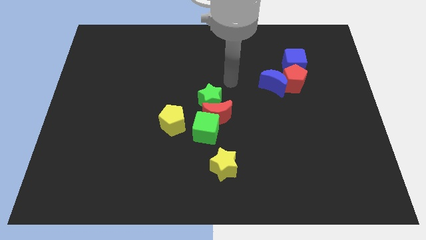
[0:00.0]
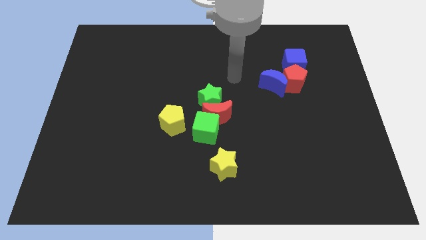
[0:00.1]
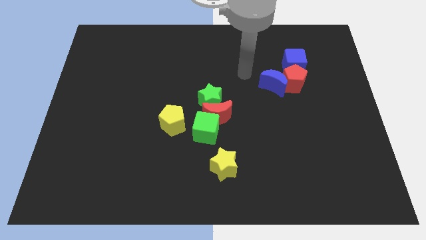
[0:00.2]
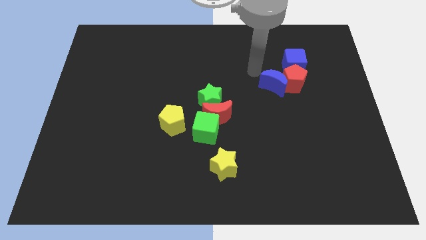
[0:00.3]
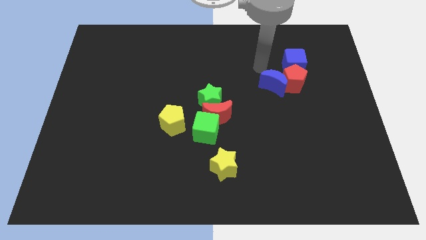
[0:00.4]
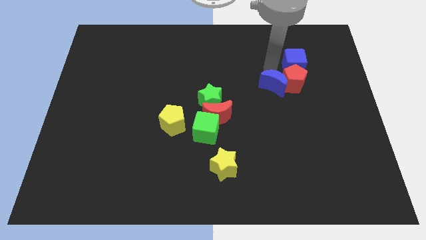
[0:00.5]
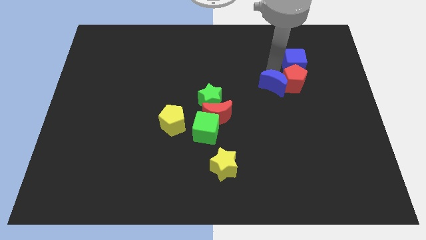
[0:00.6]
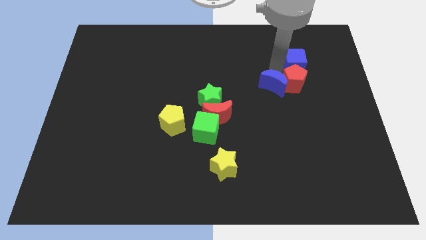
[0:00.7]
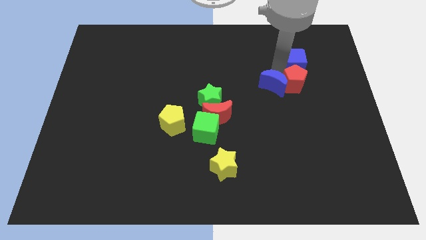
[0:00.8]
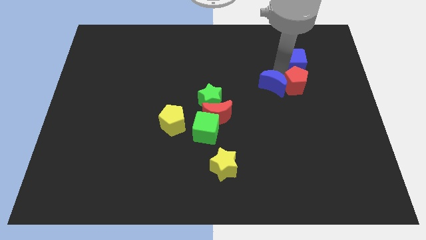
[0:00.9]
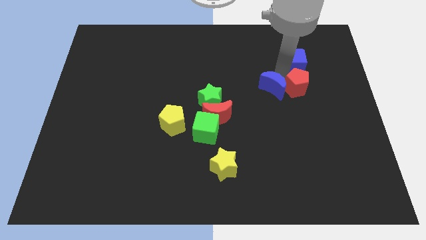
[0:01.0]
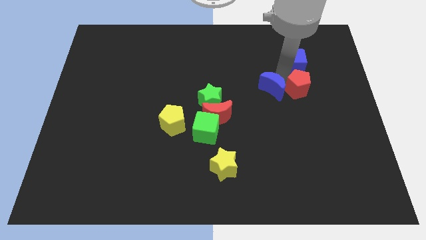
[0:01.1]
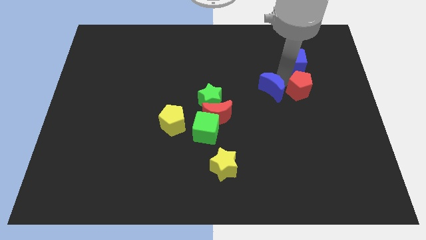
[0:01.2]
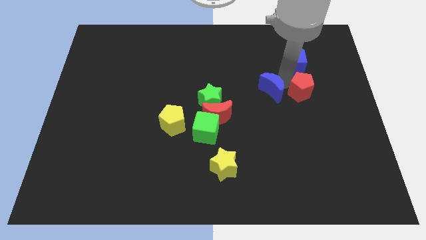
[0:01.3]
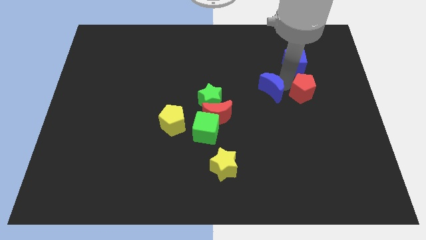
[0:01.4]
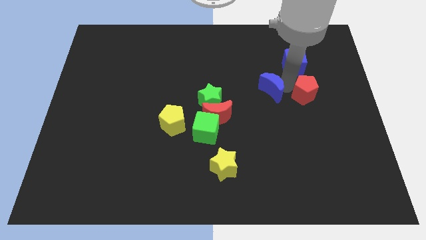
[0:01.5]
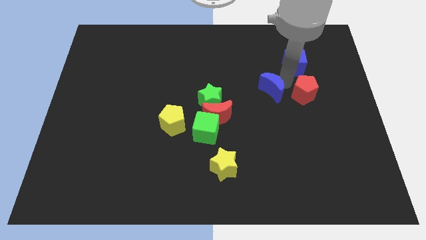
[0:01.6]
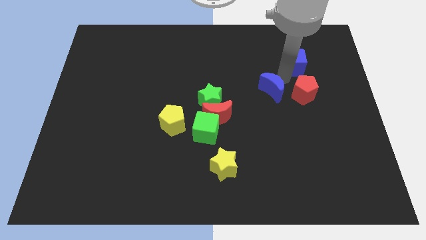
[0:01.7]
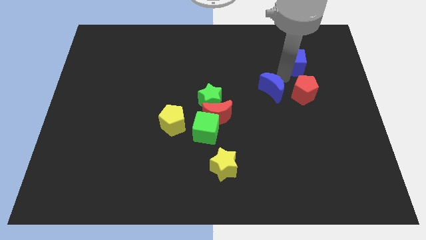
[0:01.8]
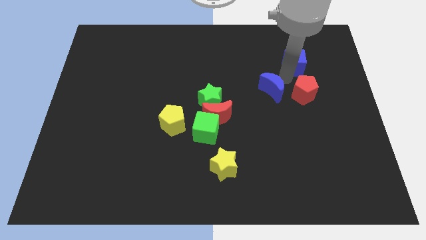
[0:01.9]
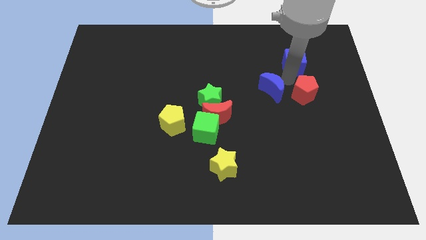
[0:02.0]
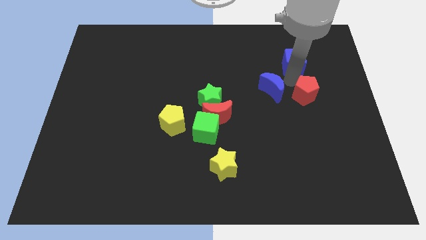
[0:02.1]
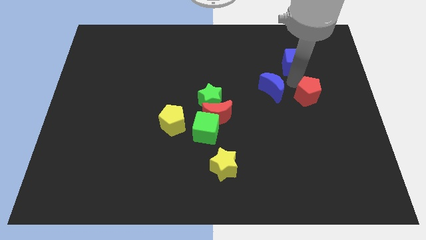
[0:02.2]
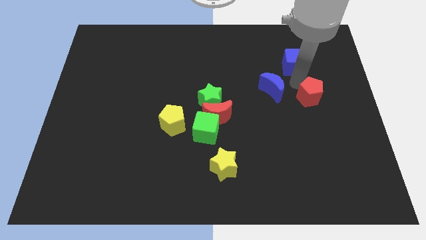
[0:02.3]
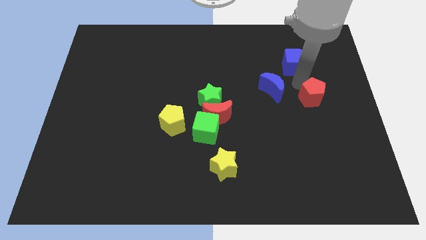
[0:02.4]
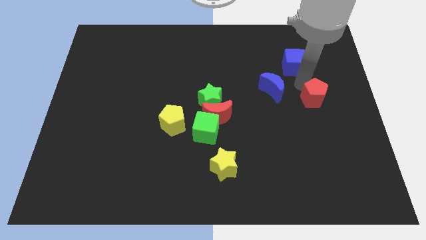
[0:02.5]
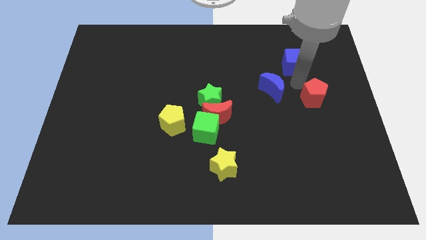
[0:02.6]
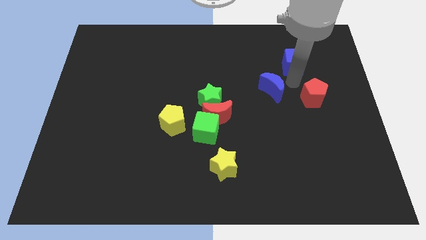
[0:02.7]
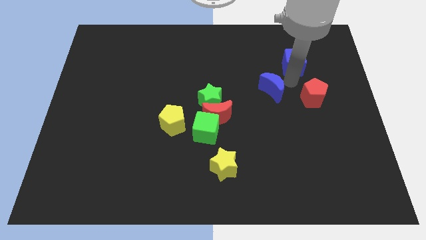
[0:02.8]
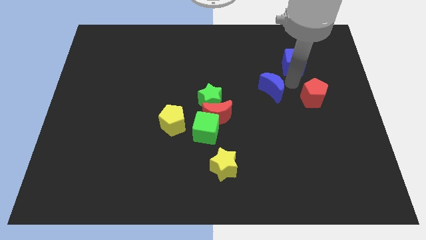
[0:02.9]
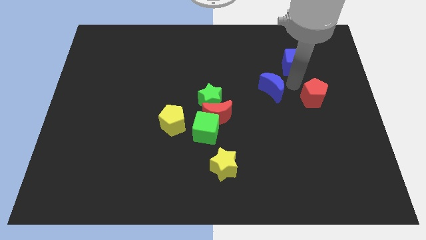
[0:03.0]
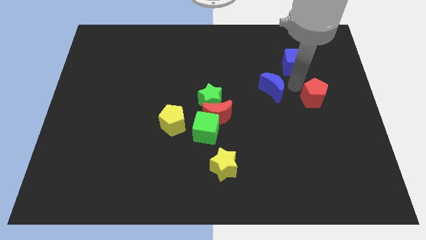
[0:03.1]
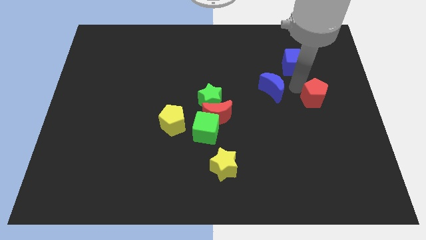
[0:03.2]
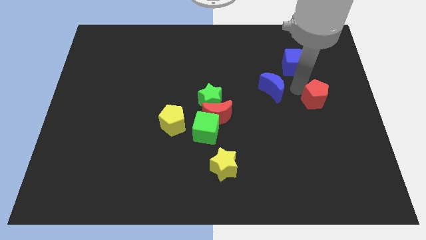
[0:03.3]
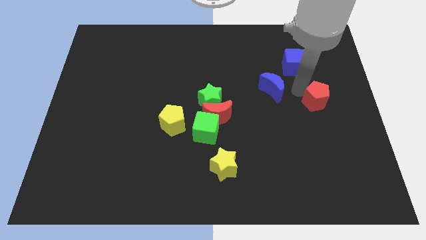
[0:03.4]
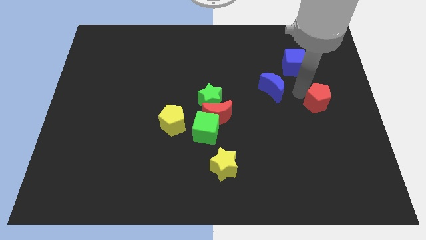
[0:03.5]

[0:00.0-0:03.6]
move the red pentagon away from the blue moon and blue cube

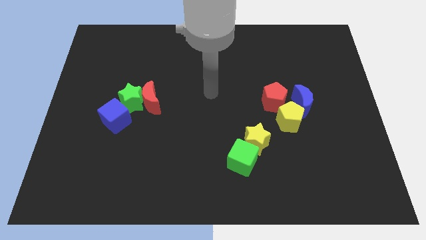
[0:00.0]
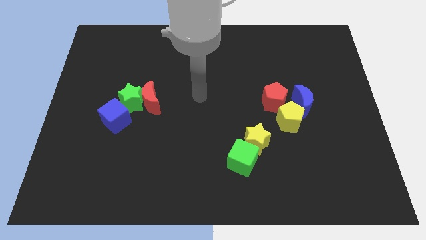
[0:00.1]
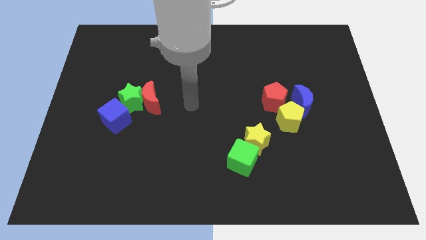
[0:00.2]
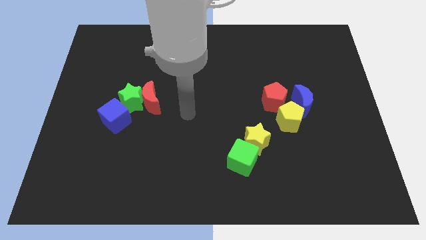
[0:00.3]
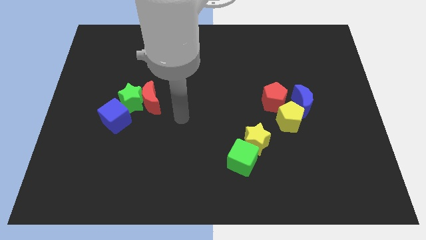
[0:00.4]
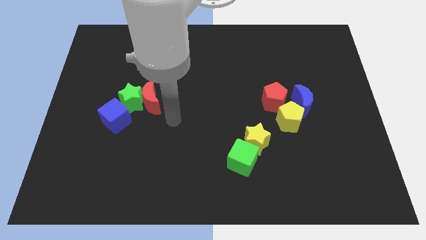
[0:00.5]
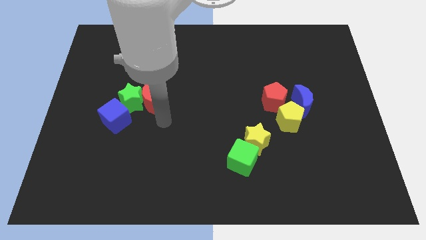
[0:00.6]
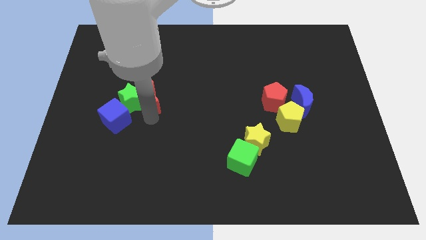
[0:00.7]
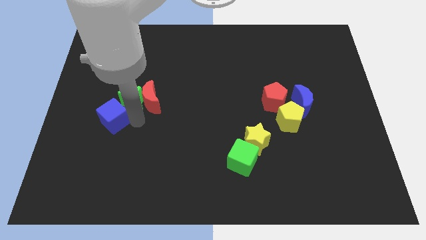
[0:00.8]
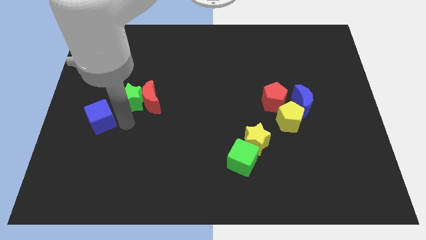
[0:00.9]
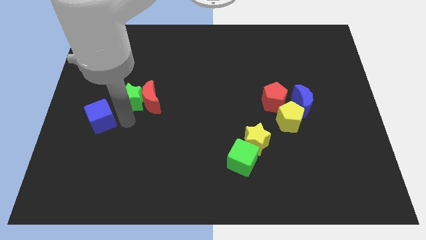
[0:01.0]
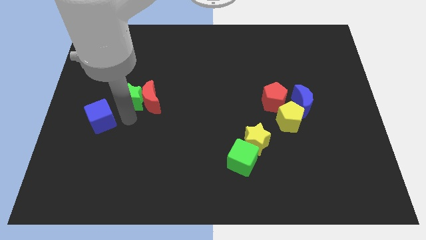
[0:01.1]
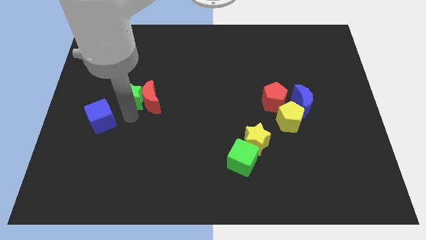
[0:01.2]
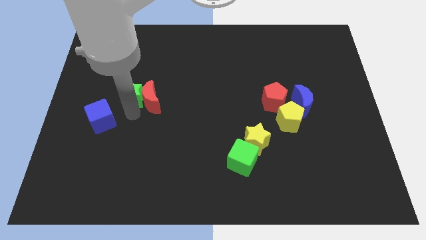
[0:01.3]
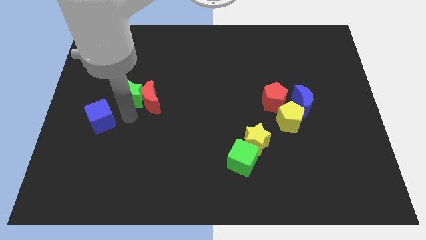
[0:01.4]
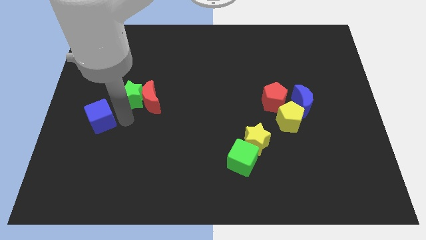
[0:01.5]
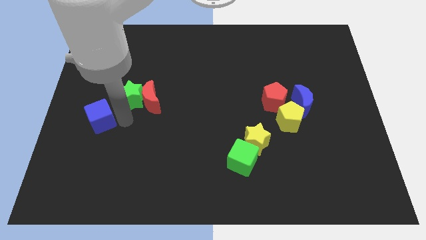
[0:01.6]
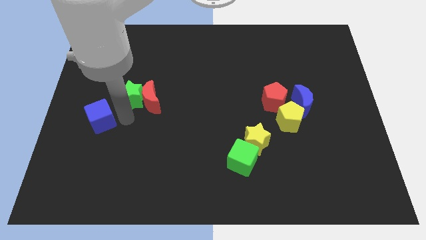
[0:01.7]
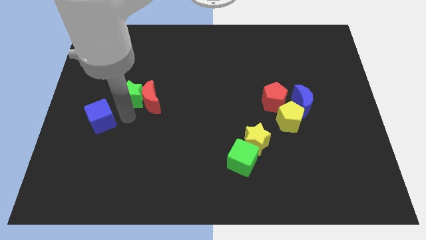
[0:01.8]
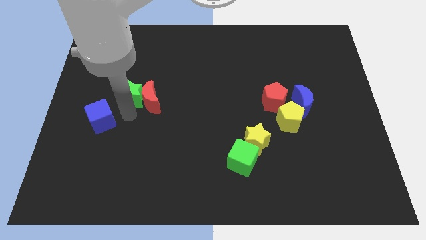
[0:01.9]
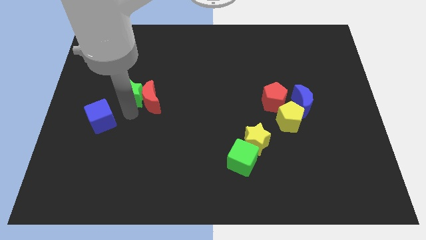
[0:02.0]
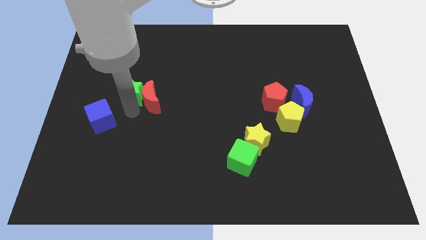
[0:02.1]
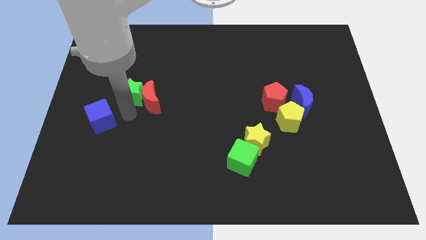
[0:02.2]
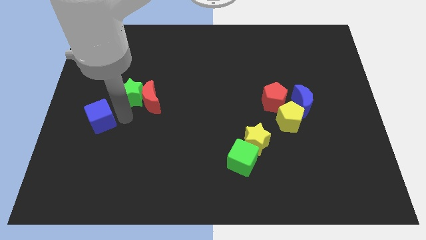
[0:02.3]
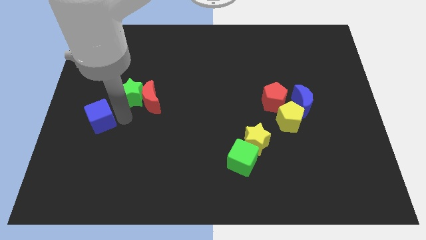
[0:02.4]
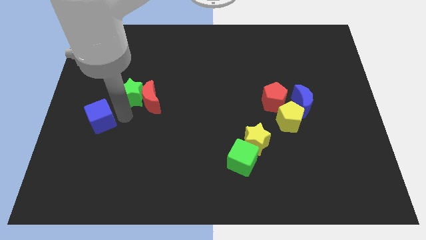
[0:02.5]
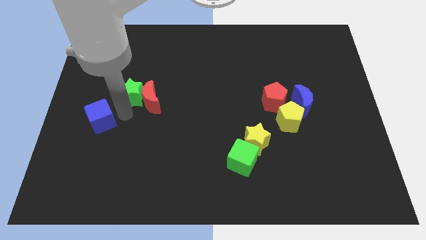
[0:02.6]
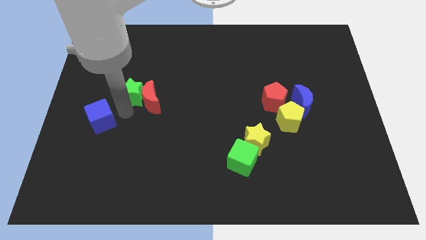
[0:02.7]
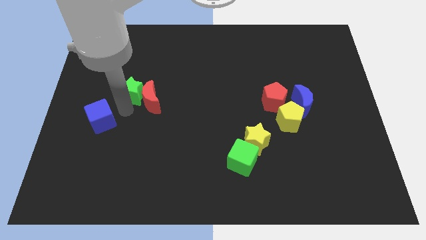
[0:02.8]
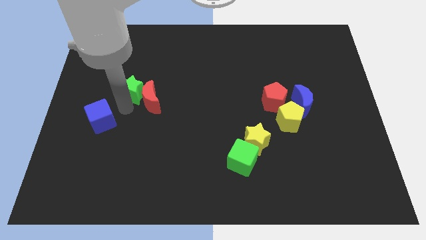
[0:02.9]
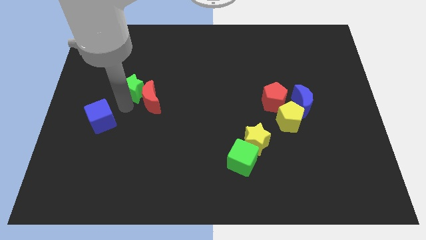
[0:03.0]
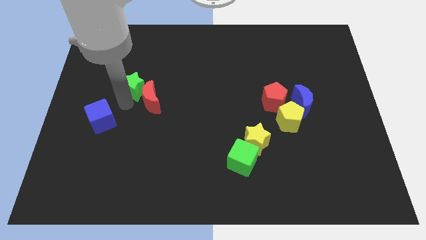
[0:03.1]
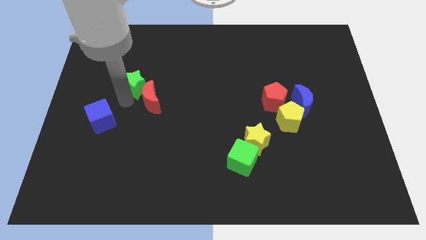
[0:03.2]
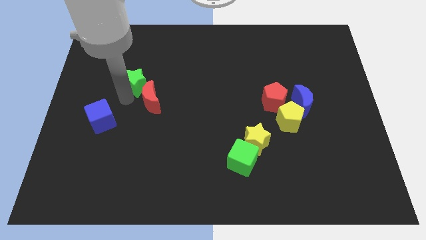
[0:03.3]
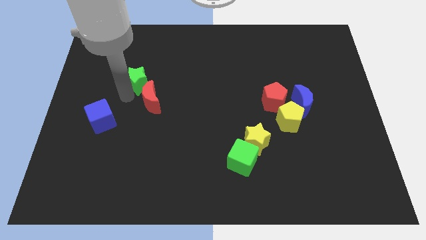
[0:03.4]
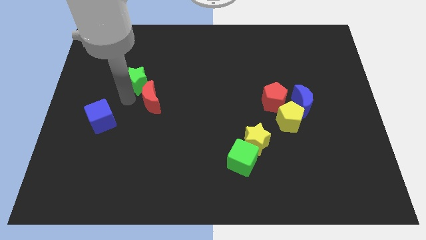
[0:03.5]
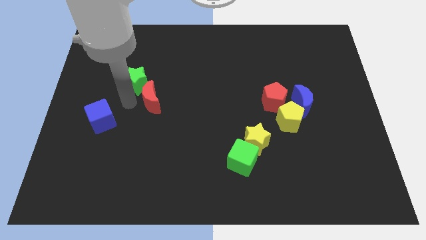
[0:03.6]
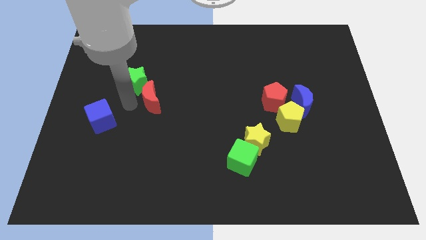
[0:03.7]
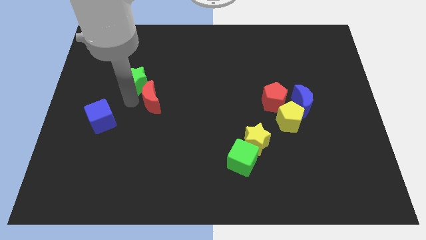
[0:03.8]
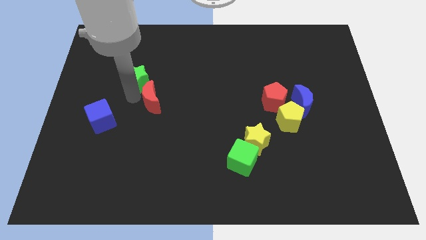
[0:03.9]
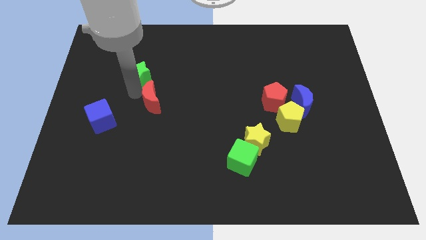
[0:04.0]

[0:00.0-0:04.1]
separate the green star from the red moon and blue cube

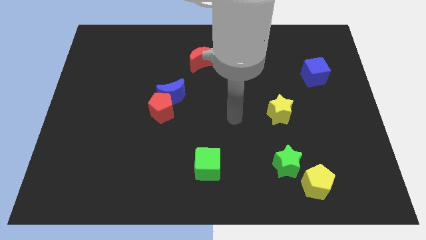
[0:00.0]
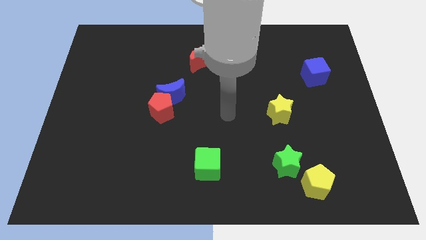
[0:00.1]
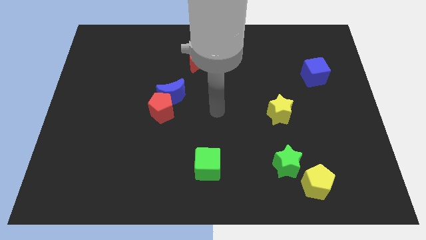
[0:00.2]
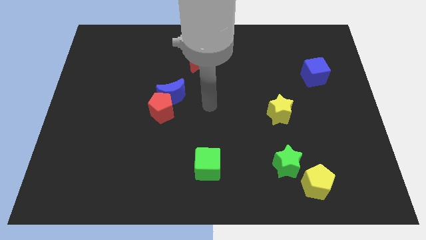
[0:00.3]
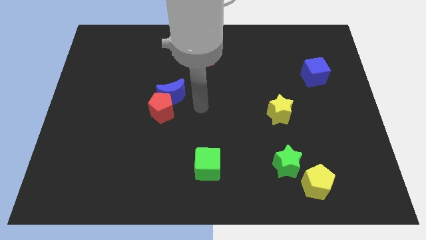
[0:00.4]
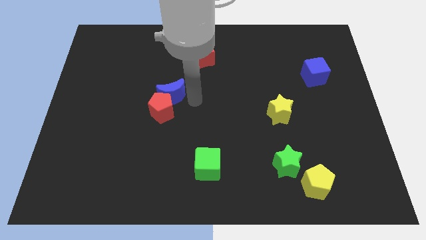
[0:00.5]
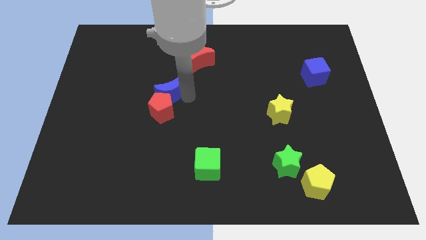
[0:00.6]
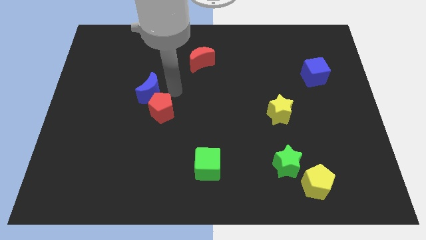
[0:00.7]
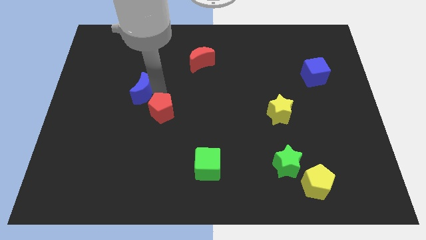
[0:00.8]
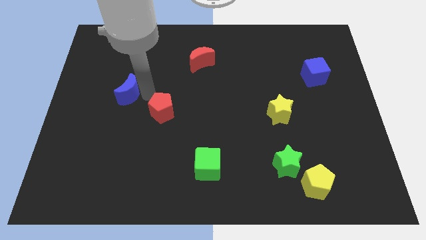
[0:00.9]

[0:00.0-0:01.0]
pull the red pentagon apart from the blue moon

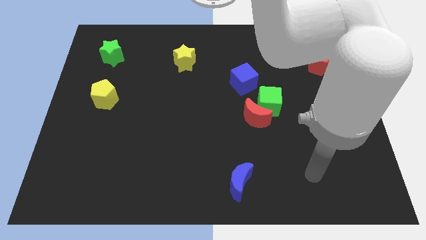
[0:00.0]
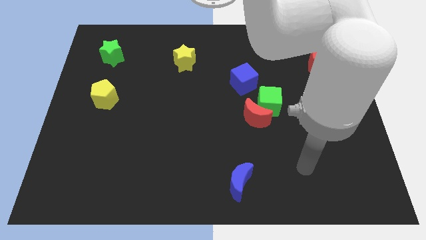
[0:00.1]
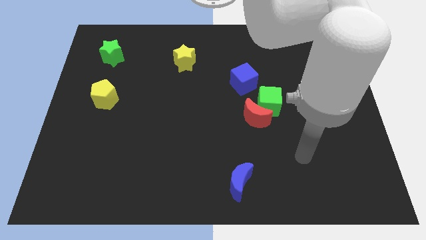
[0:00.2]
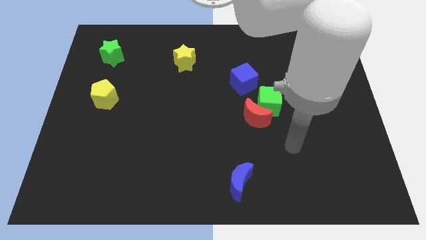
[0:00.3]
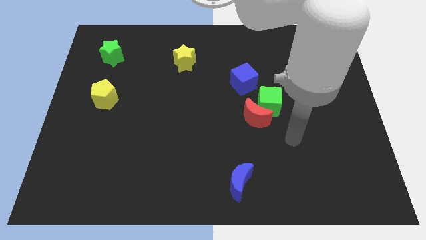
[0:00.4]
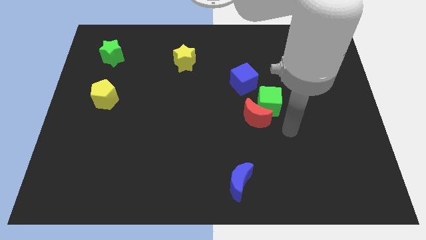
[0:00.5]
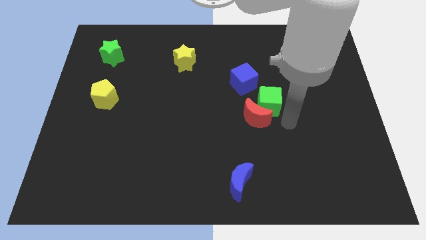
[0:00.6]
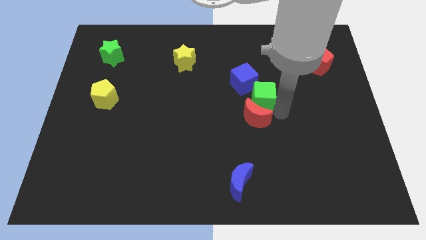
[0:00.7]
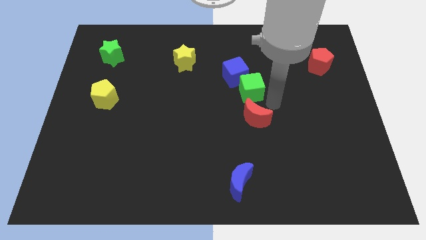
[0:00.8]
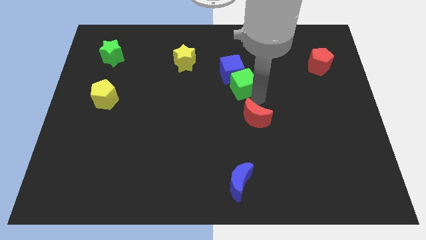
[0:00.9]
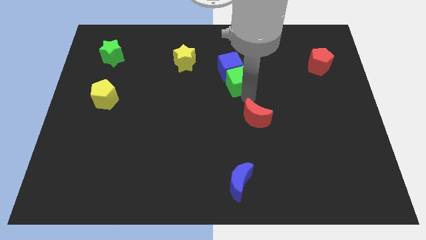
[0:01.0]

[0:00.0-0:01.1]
separate the red moon from the green cube
